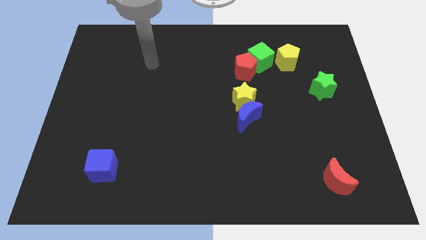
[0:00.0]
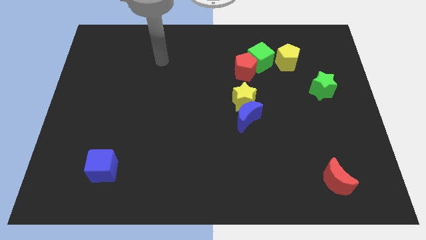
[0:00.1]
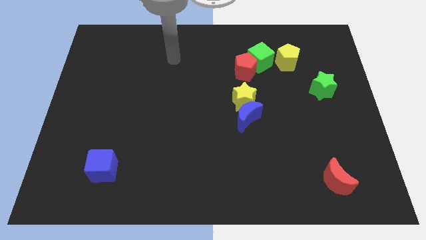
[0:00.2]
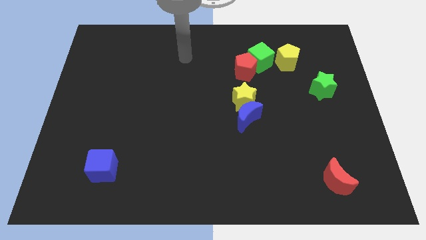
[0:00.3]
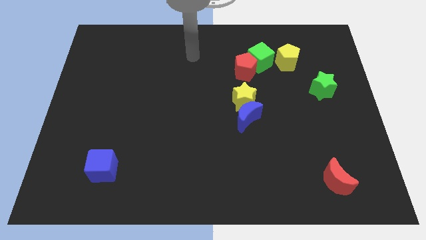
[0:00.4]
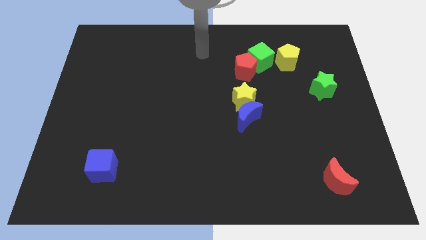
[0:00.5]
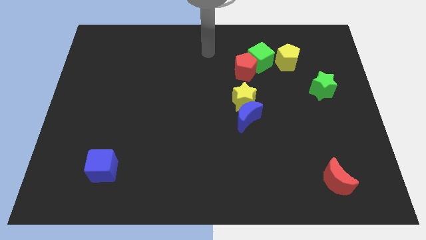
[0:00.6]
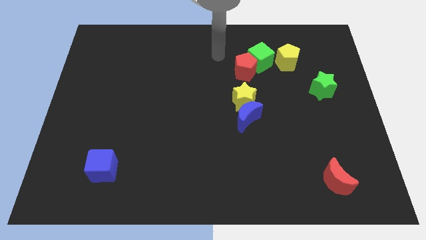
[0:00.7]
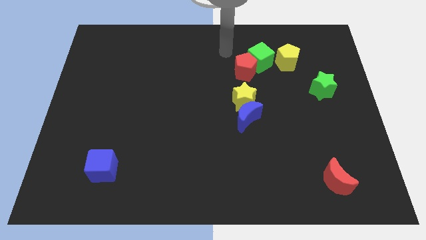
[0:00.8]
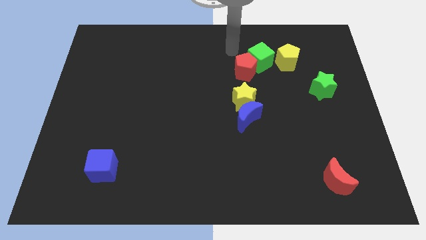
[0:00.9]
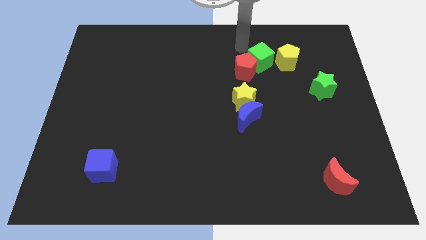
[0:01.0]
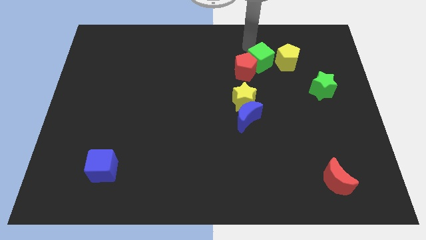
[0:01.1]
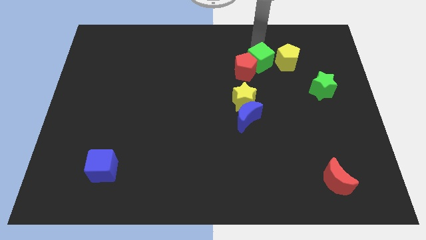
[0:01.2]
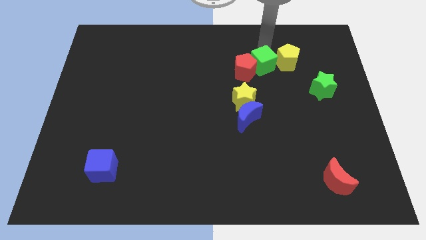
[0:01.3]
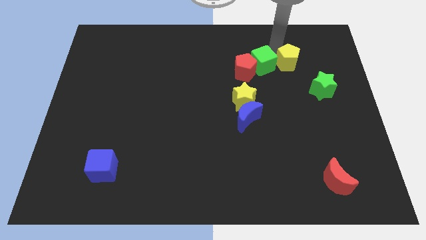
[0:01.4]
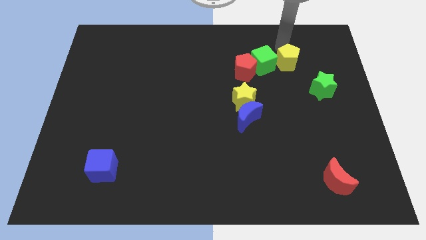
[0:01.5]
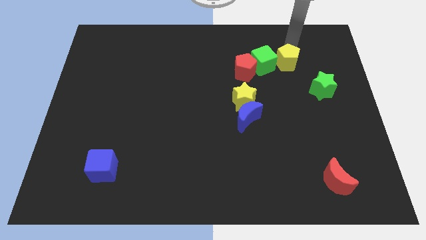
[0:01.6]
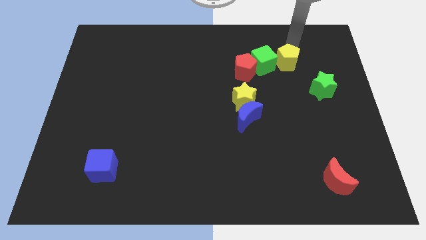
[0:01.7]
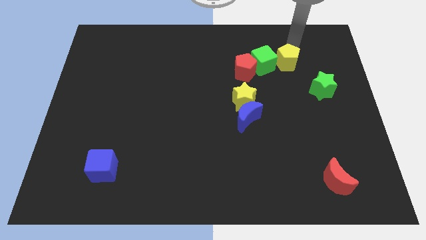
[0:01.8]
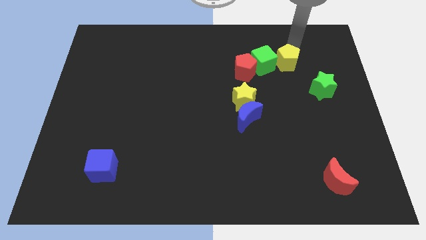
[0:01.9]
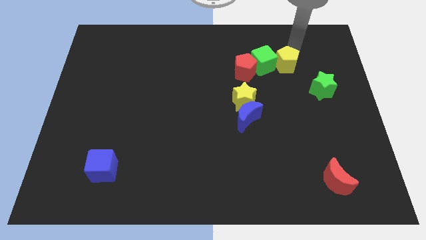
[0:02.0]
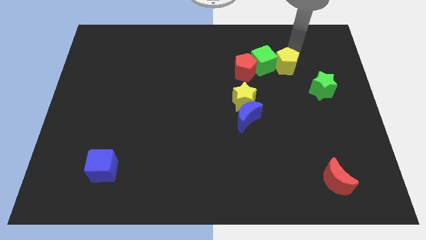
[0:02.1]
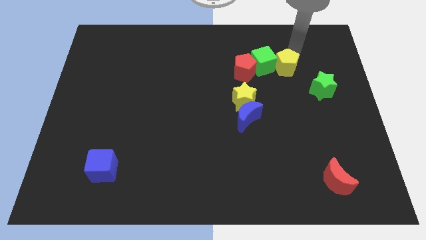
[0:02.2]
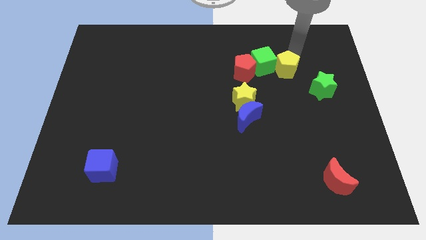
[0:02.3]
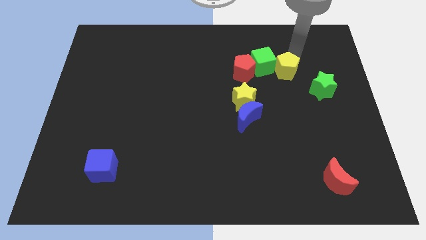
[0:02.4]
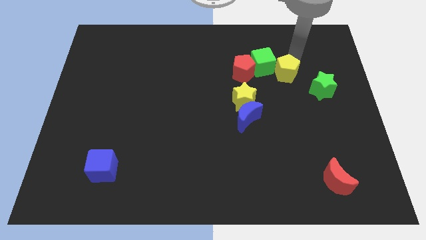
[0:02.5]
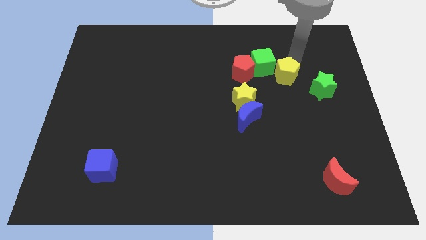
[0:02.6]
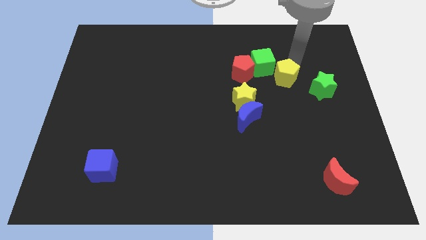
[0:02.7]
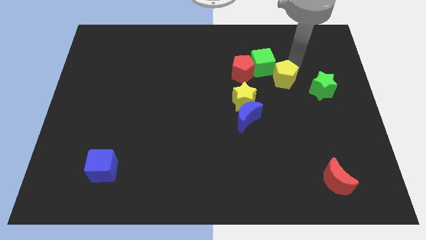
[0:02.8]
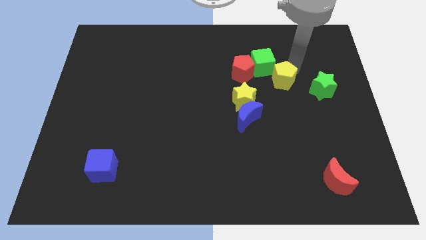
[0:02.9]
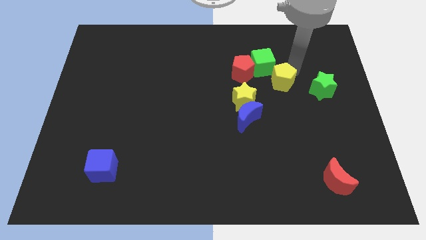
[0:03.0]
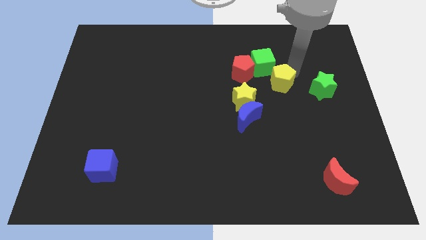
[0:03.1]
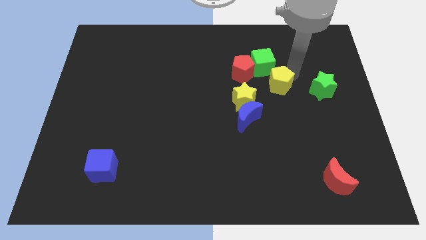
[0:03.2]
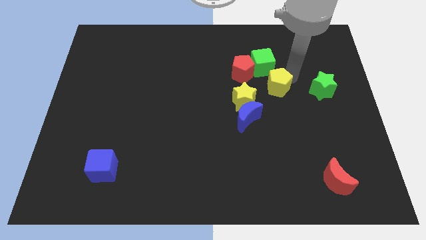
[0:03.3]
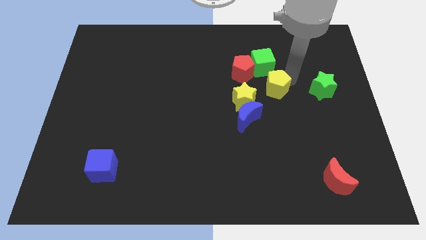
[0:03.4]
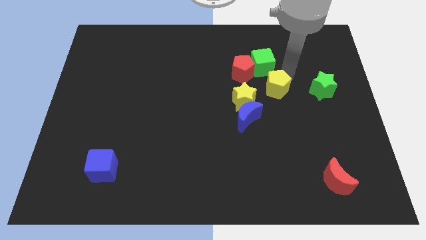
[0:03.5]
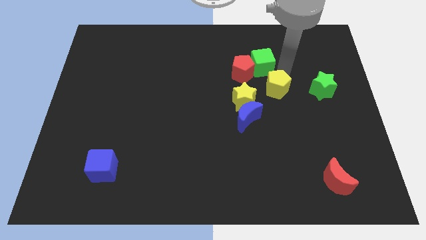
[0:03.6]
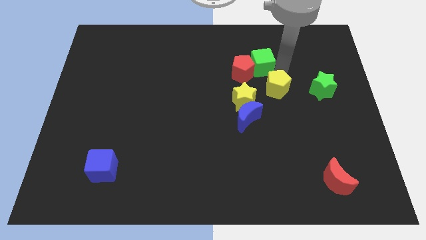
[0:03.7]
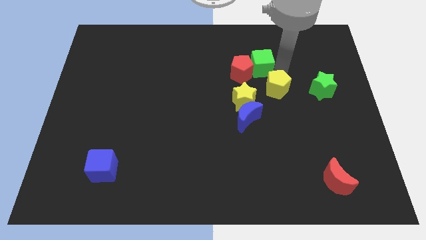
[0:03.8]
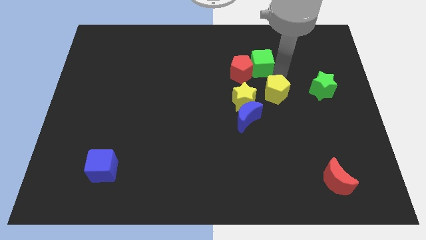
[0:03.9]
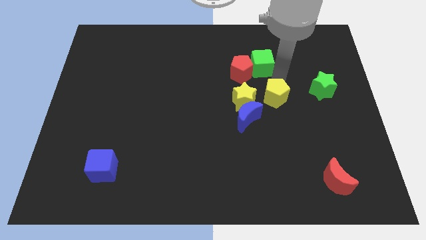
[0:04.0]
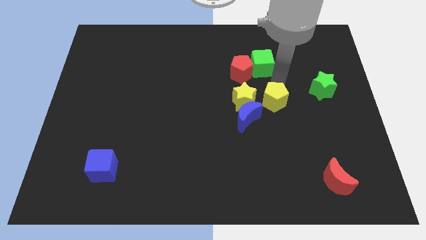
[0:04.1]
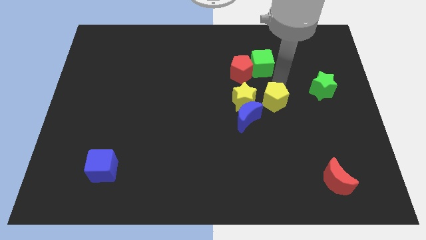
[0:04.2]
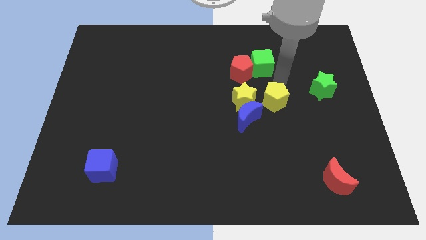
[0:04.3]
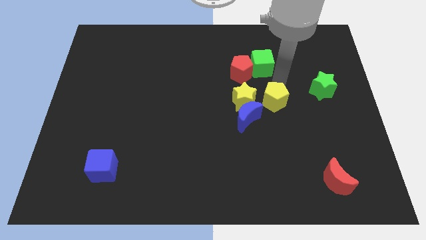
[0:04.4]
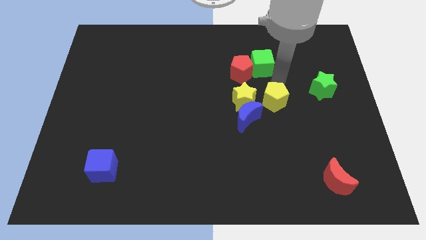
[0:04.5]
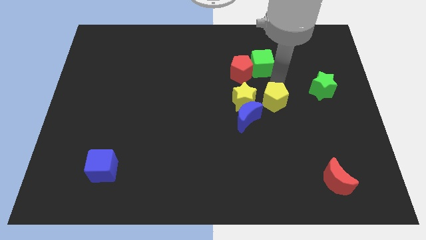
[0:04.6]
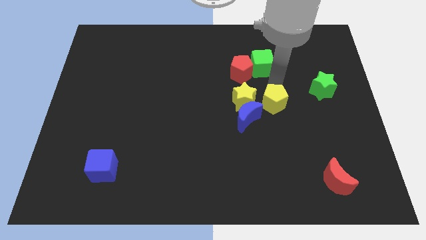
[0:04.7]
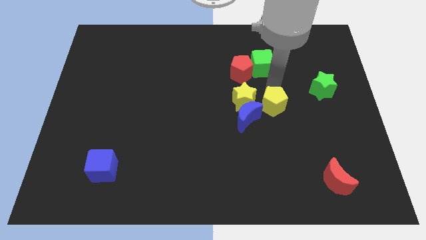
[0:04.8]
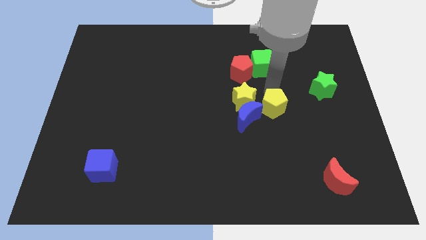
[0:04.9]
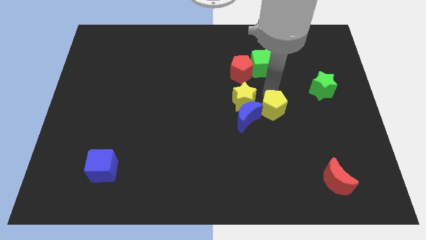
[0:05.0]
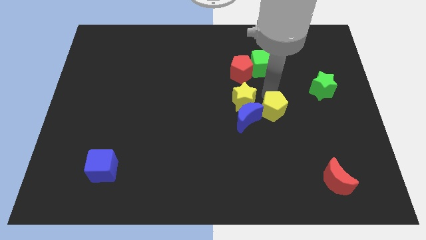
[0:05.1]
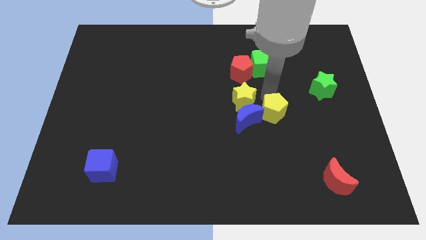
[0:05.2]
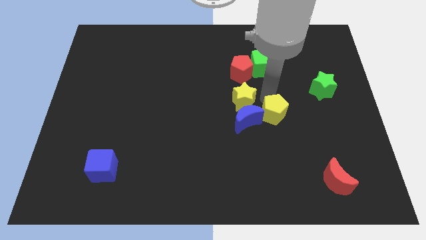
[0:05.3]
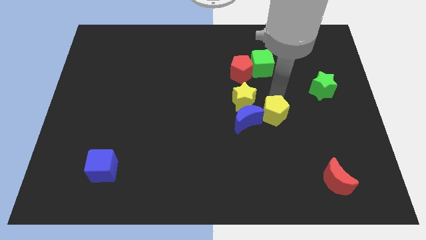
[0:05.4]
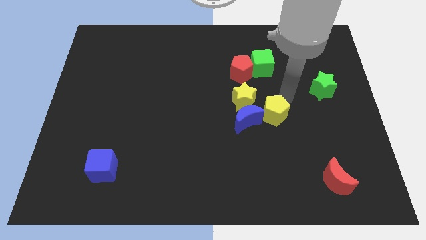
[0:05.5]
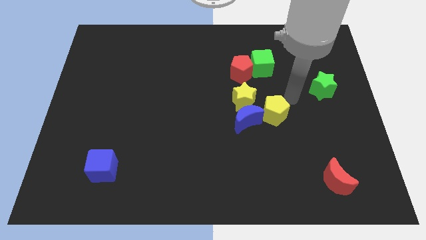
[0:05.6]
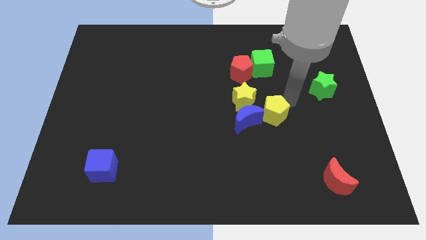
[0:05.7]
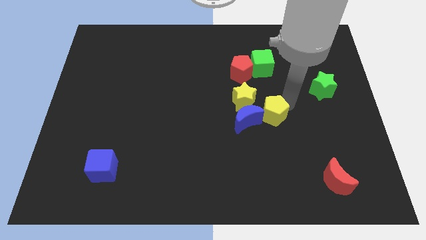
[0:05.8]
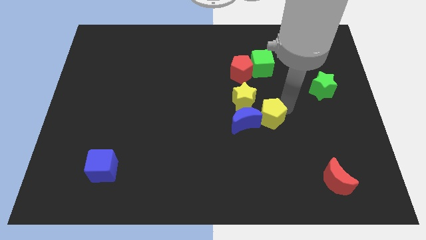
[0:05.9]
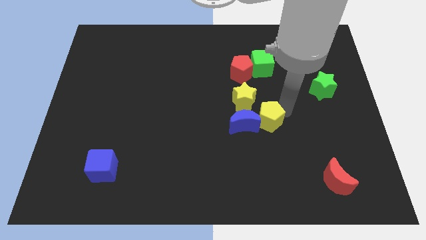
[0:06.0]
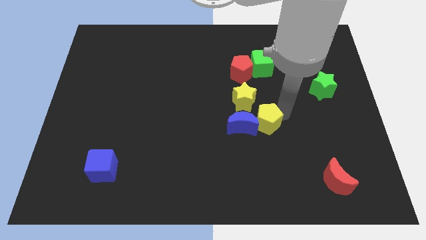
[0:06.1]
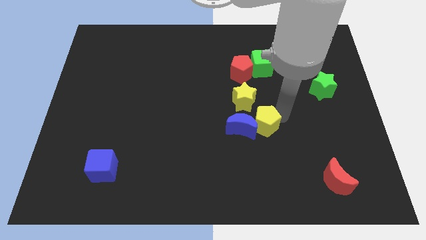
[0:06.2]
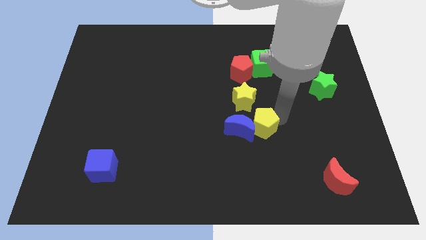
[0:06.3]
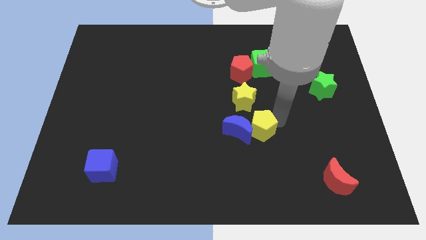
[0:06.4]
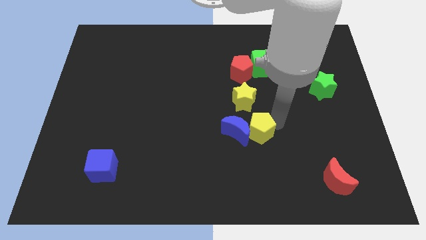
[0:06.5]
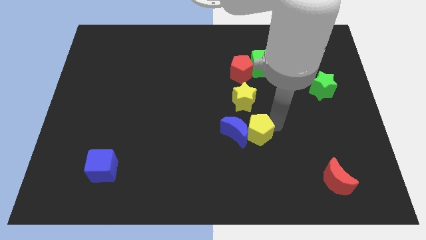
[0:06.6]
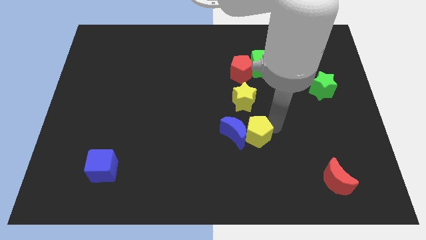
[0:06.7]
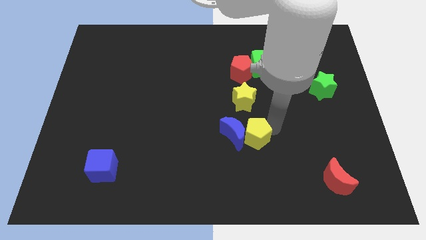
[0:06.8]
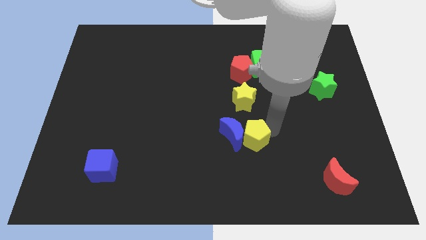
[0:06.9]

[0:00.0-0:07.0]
push the yellow pentagon downwards and to the left

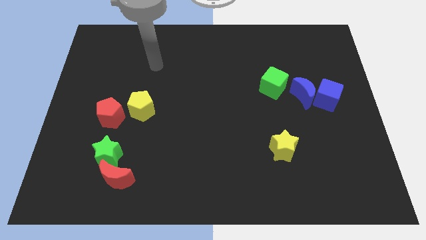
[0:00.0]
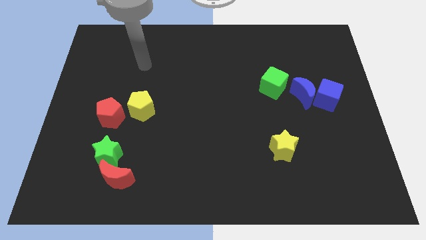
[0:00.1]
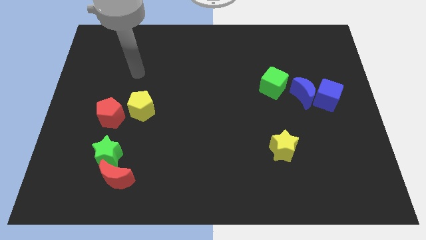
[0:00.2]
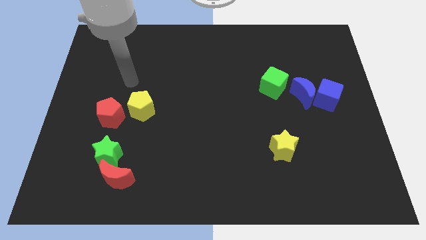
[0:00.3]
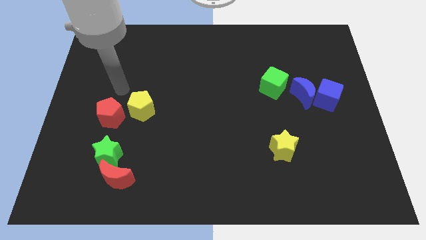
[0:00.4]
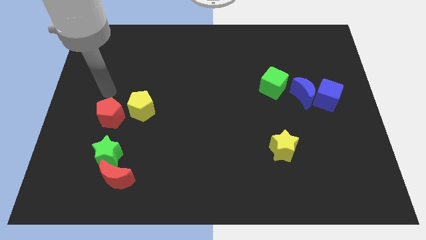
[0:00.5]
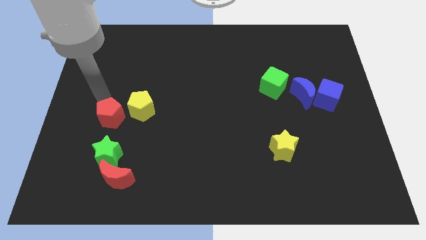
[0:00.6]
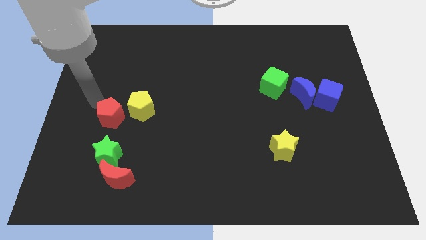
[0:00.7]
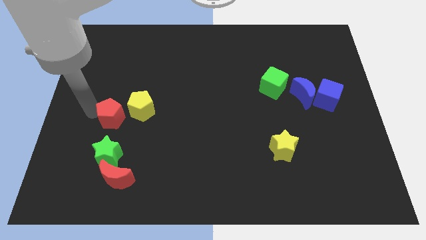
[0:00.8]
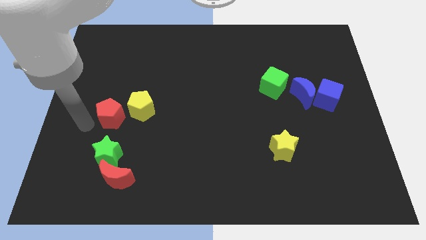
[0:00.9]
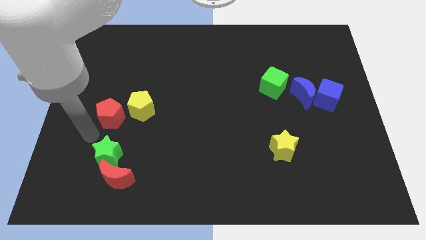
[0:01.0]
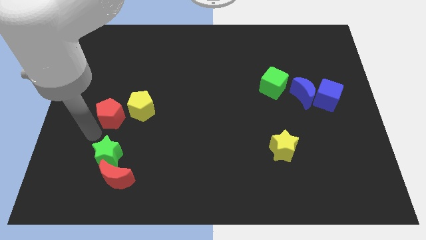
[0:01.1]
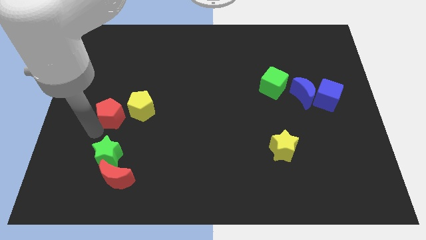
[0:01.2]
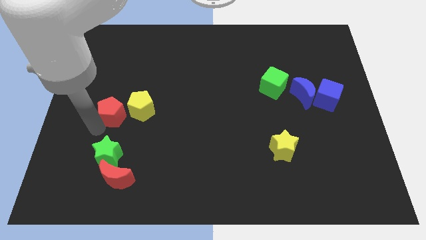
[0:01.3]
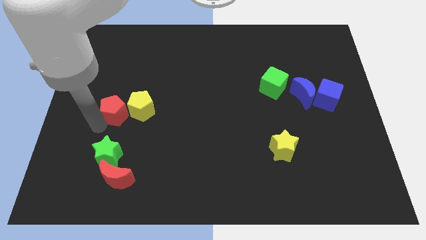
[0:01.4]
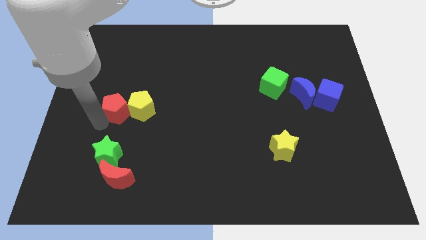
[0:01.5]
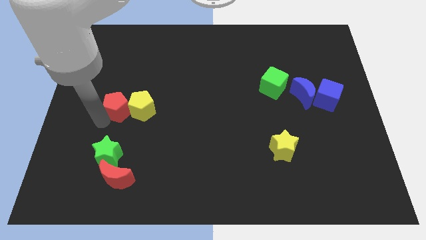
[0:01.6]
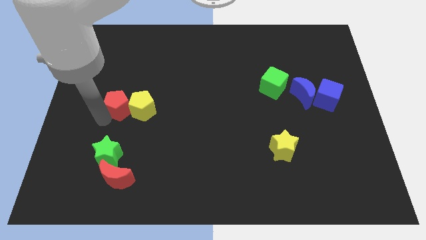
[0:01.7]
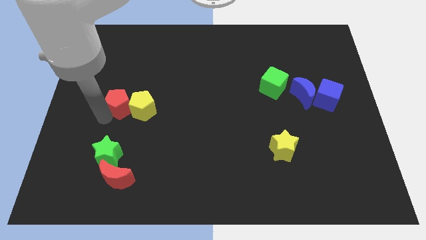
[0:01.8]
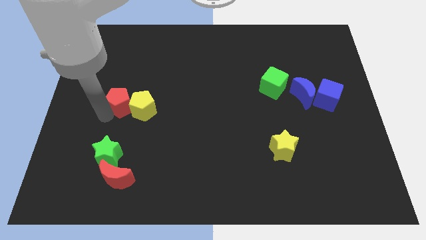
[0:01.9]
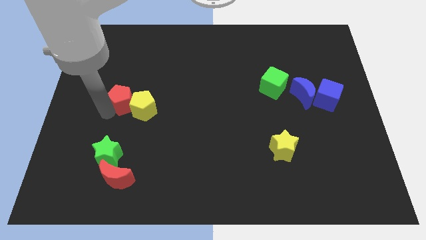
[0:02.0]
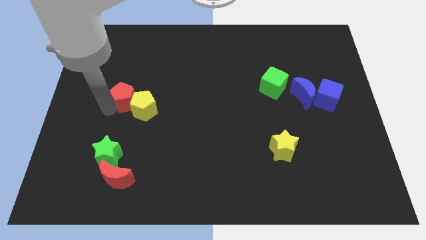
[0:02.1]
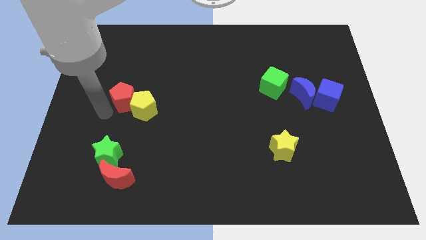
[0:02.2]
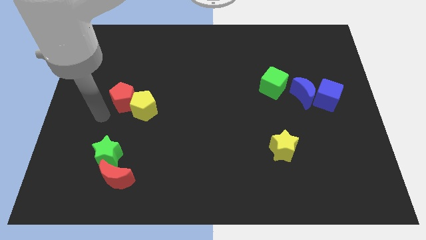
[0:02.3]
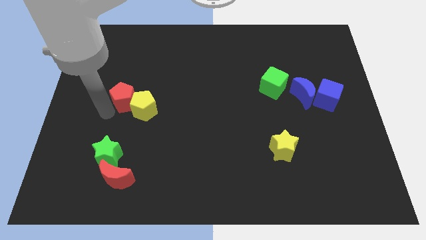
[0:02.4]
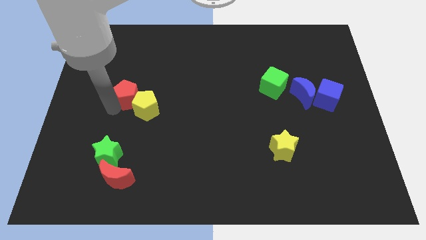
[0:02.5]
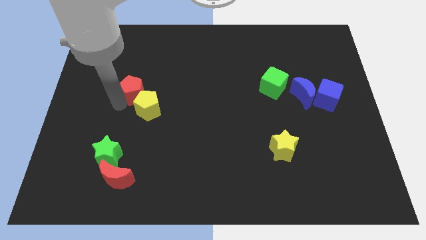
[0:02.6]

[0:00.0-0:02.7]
push the red pentagon upwards and to the right diagonally a little
